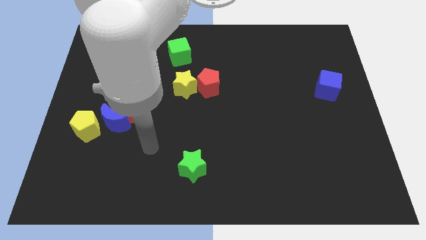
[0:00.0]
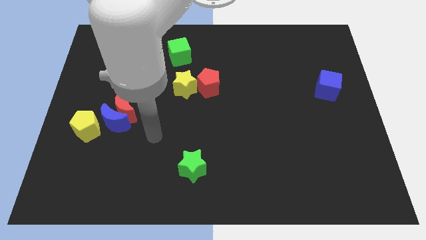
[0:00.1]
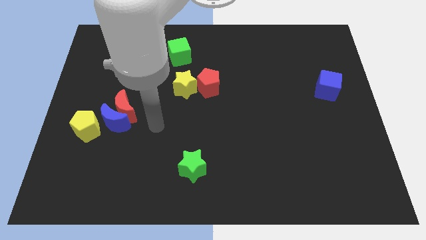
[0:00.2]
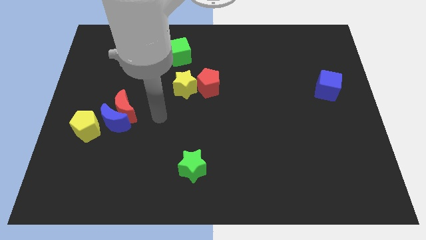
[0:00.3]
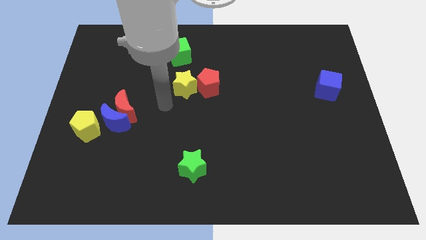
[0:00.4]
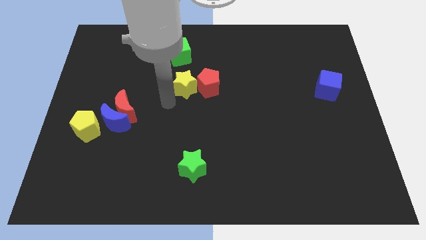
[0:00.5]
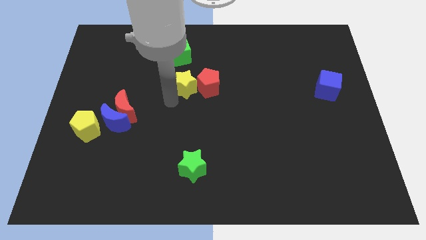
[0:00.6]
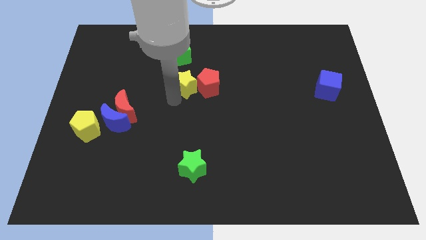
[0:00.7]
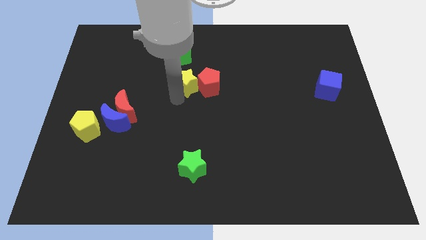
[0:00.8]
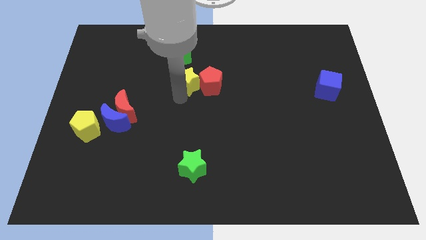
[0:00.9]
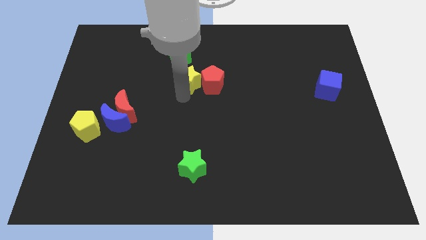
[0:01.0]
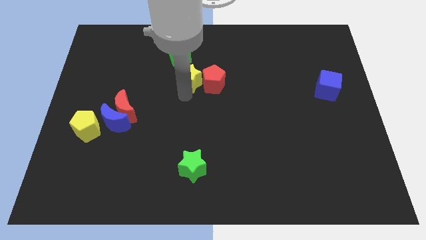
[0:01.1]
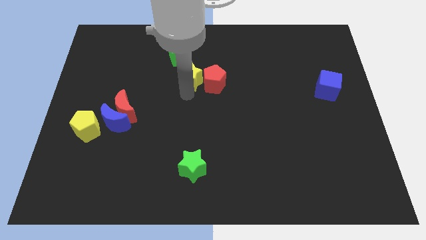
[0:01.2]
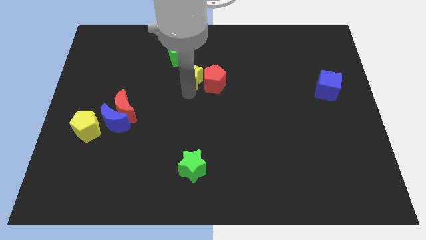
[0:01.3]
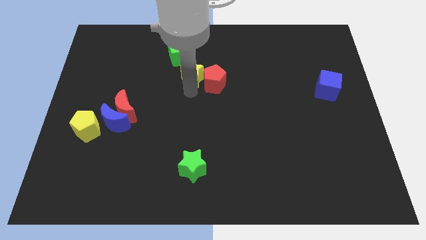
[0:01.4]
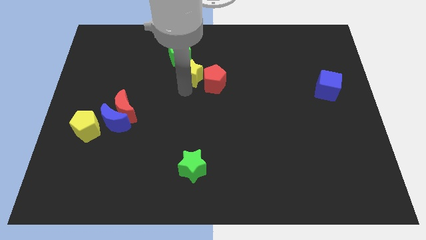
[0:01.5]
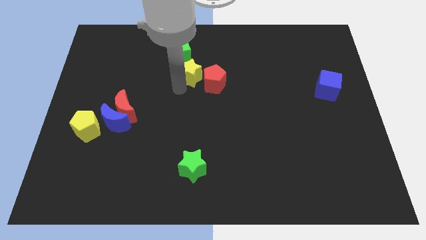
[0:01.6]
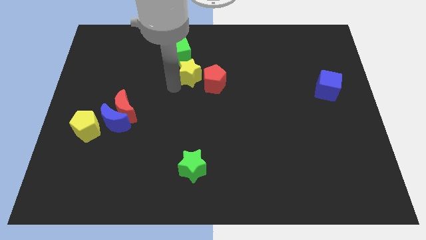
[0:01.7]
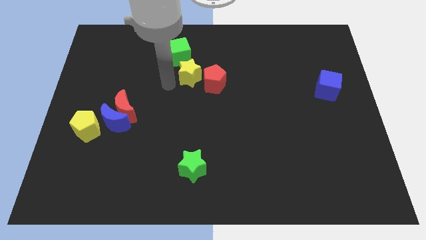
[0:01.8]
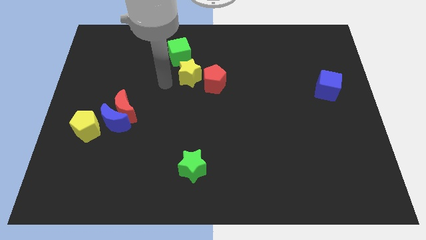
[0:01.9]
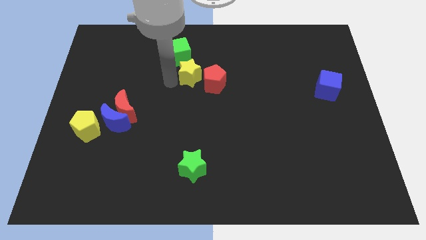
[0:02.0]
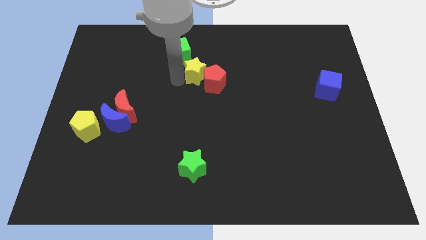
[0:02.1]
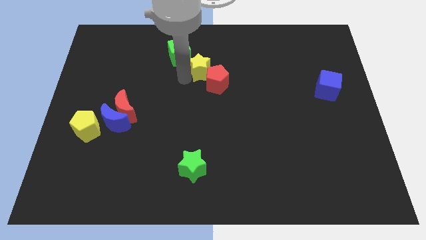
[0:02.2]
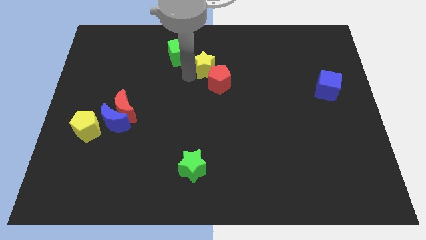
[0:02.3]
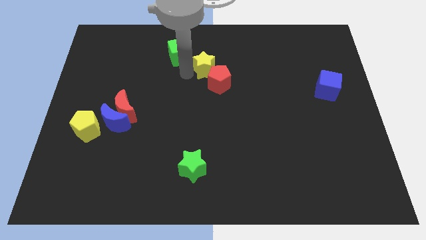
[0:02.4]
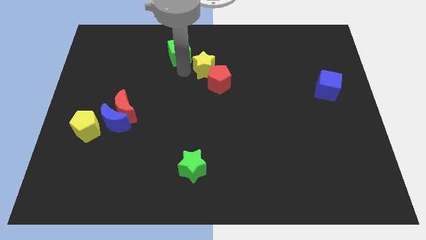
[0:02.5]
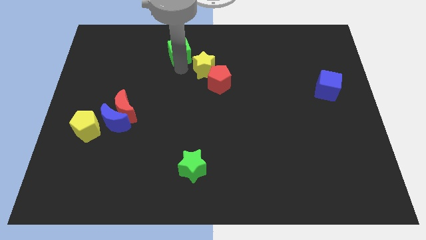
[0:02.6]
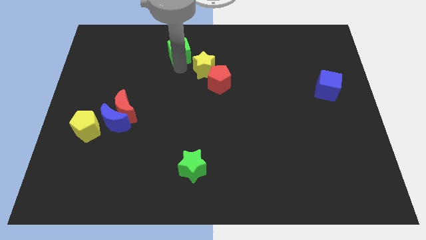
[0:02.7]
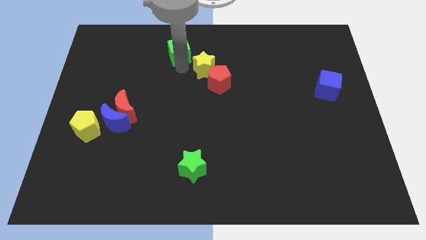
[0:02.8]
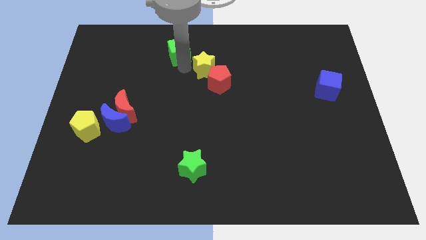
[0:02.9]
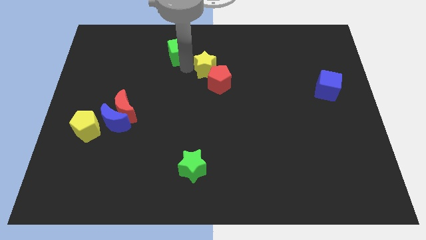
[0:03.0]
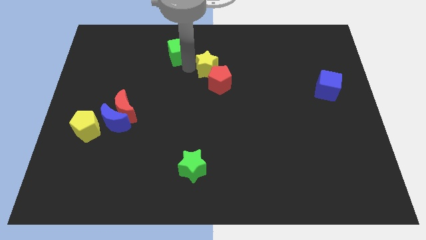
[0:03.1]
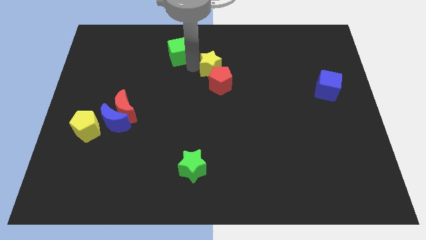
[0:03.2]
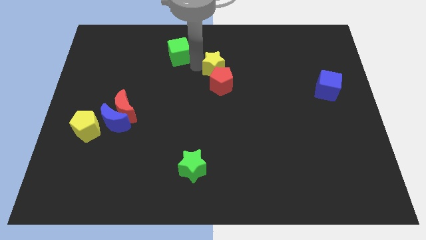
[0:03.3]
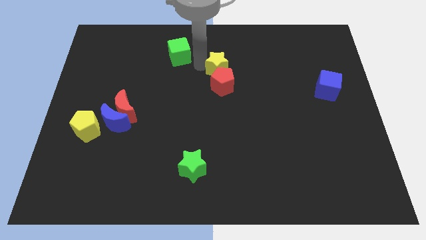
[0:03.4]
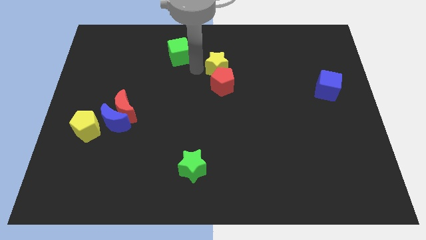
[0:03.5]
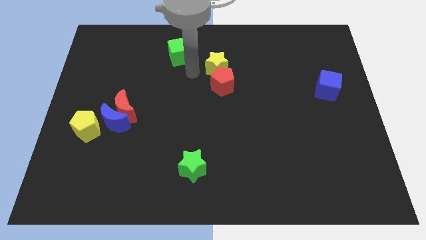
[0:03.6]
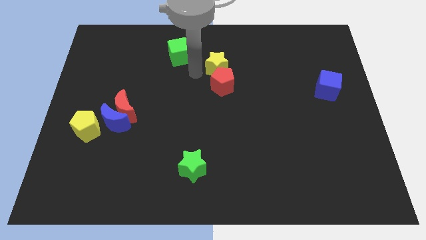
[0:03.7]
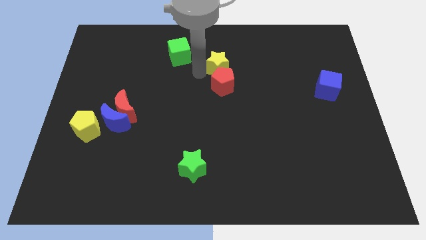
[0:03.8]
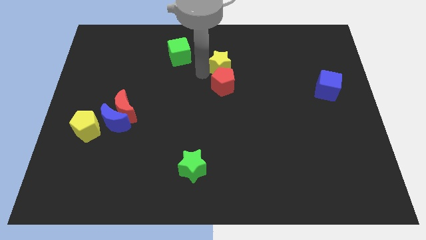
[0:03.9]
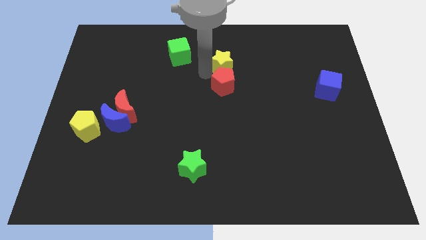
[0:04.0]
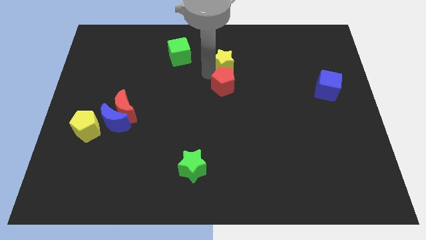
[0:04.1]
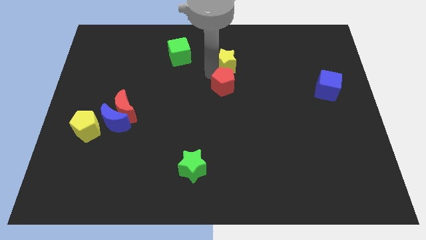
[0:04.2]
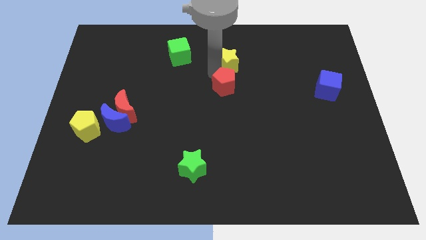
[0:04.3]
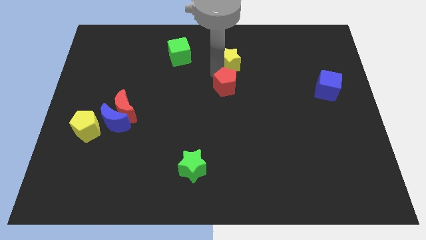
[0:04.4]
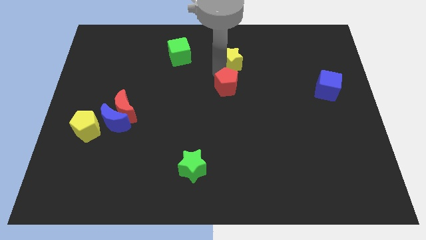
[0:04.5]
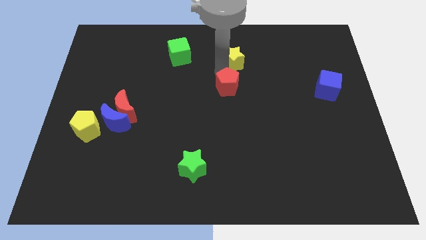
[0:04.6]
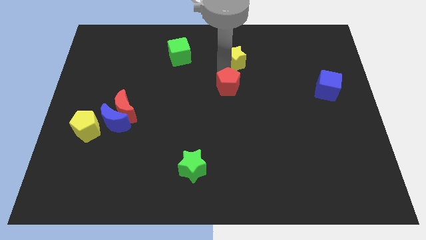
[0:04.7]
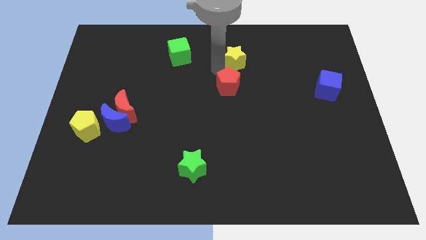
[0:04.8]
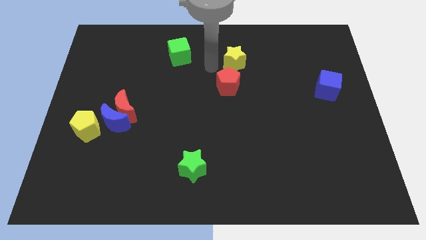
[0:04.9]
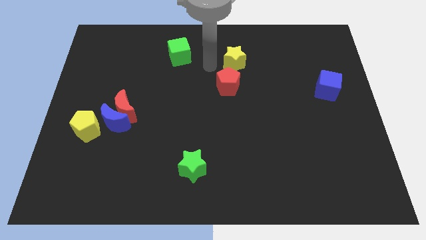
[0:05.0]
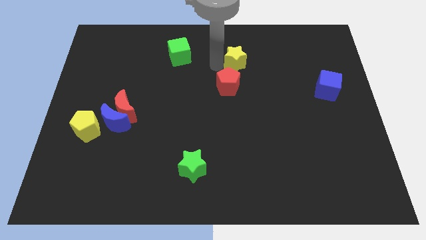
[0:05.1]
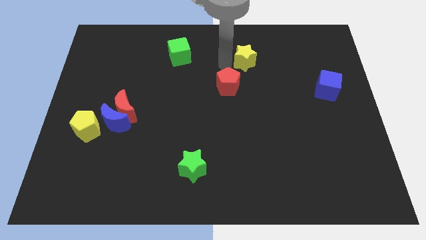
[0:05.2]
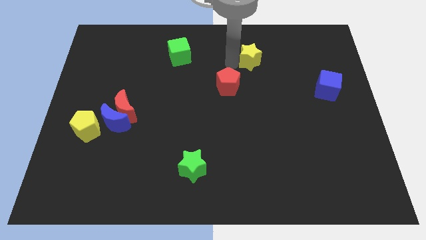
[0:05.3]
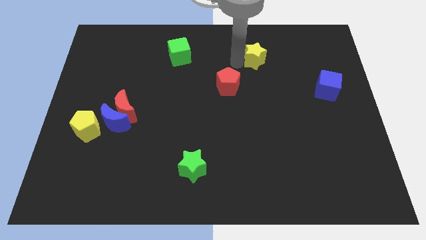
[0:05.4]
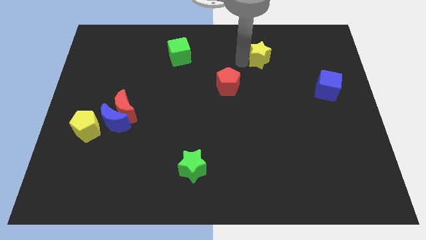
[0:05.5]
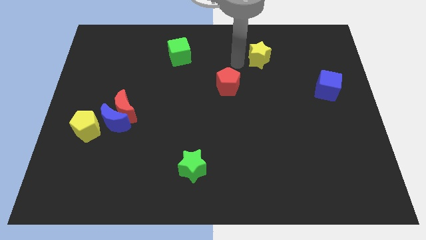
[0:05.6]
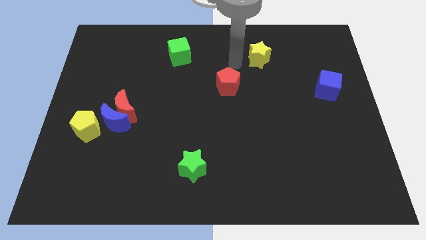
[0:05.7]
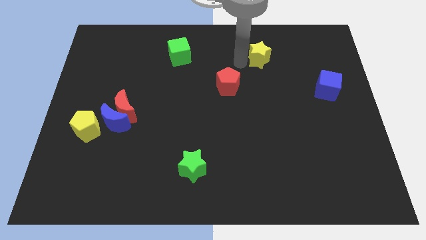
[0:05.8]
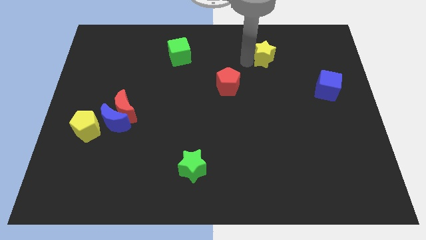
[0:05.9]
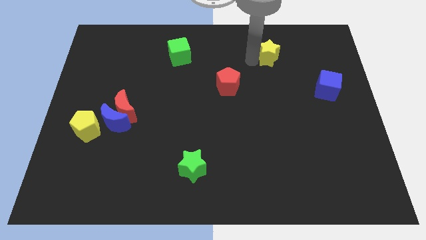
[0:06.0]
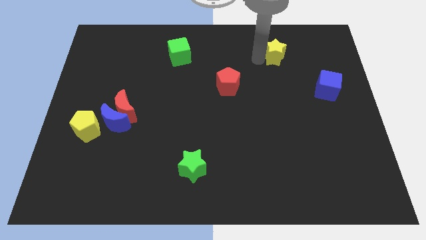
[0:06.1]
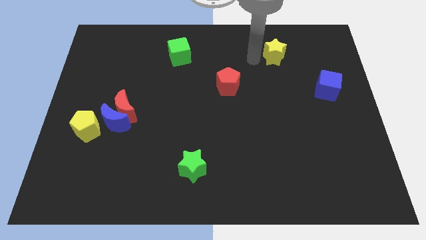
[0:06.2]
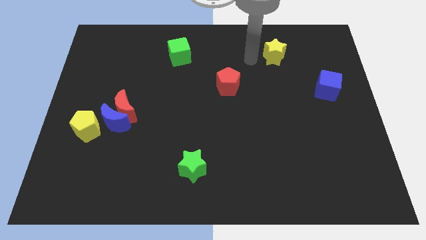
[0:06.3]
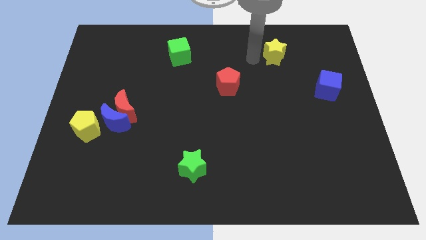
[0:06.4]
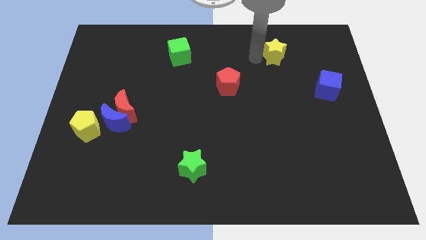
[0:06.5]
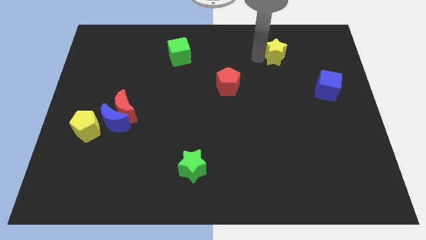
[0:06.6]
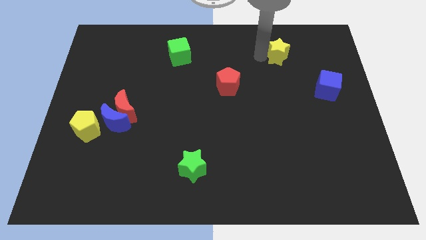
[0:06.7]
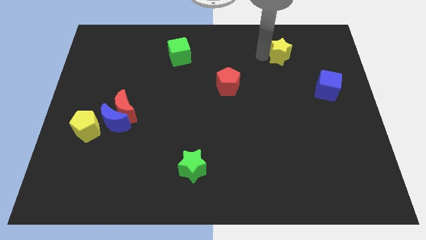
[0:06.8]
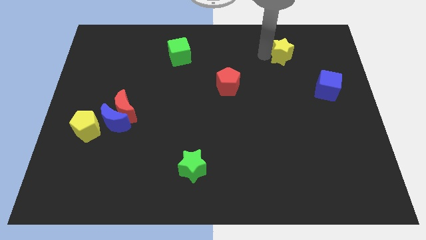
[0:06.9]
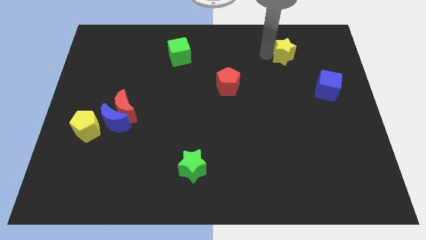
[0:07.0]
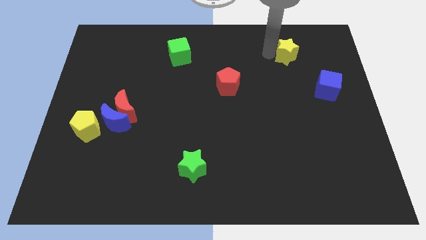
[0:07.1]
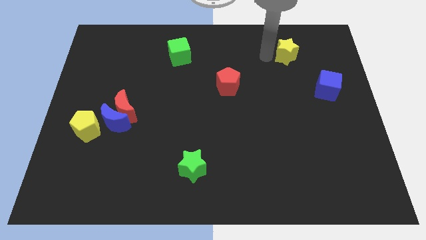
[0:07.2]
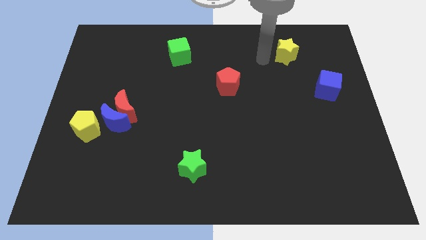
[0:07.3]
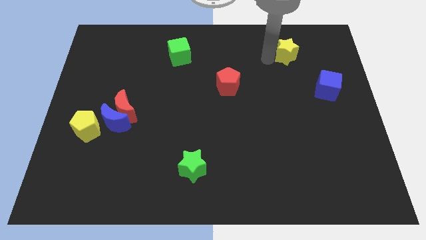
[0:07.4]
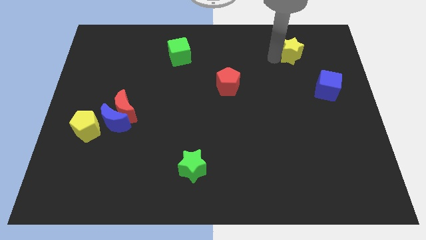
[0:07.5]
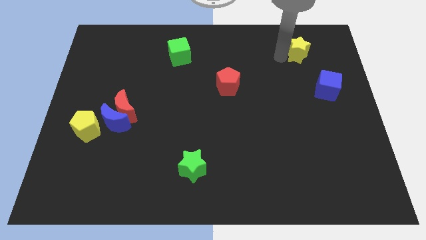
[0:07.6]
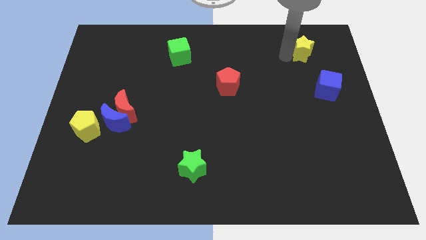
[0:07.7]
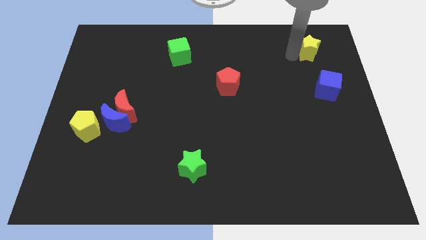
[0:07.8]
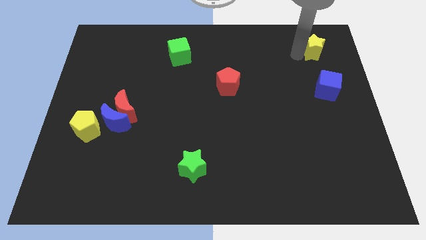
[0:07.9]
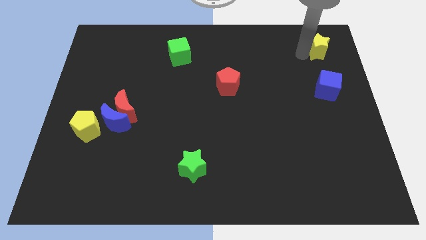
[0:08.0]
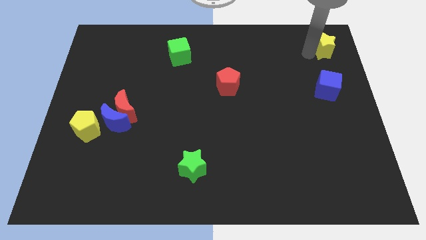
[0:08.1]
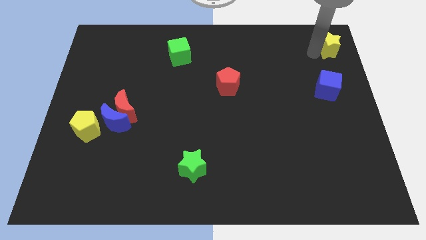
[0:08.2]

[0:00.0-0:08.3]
slide the yellow star to the upper right corner
